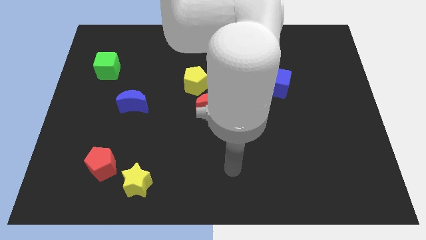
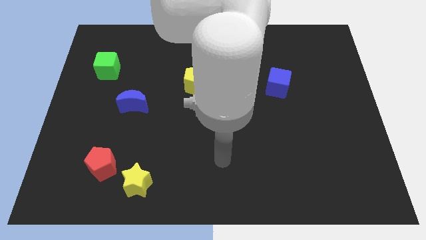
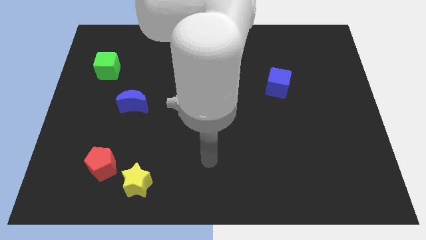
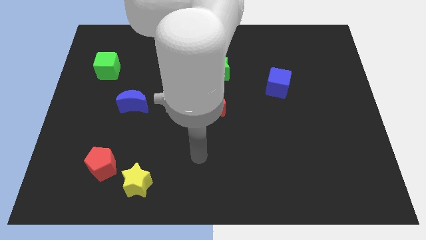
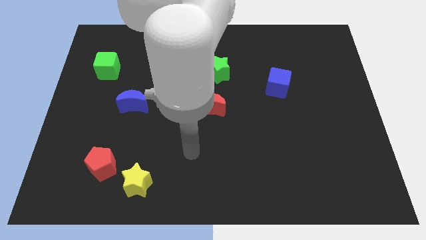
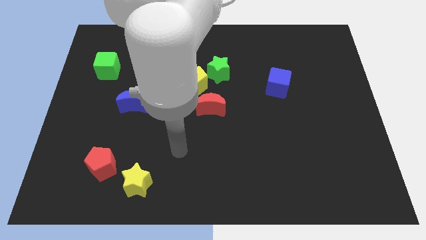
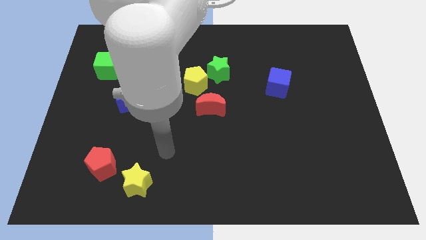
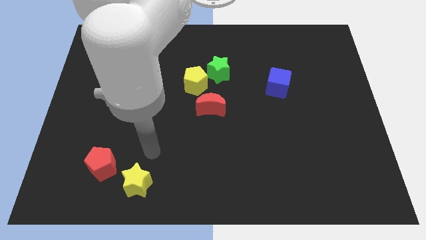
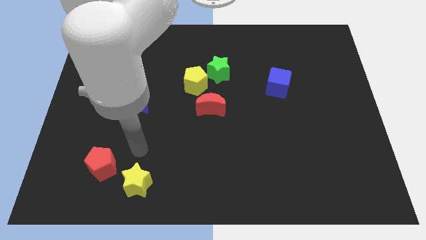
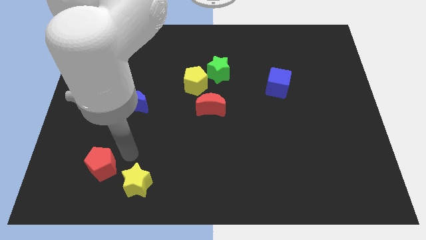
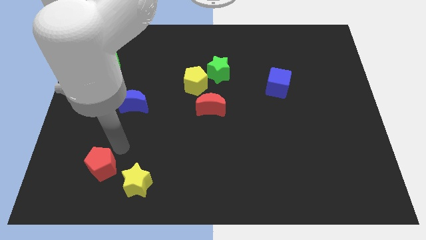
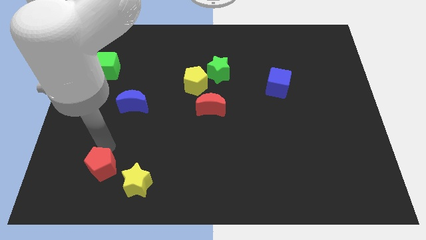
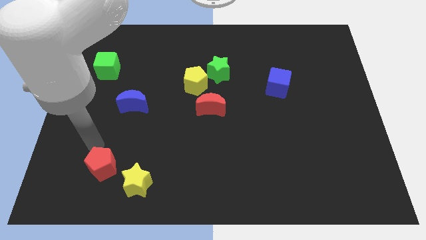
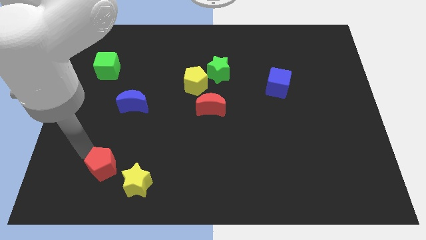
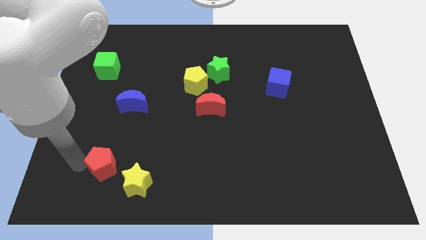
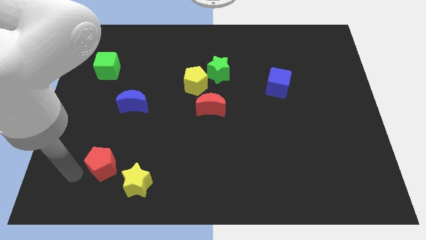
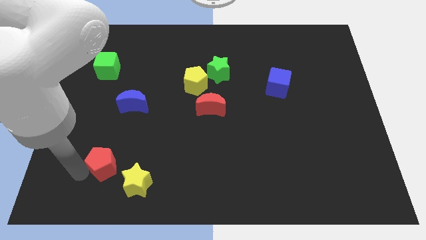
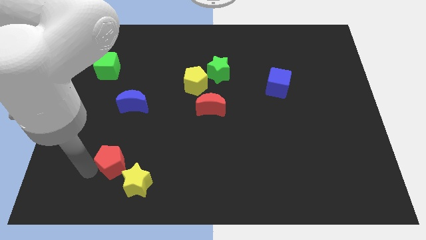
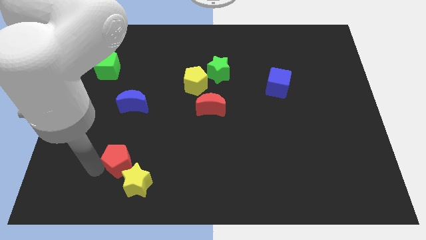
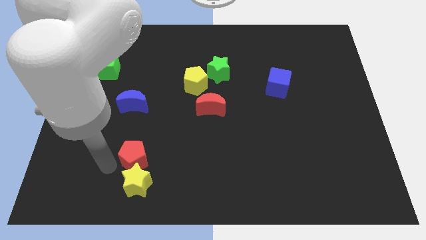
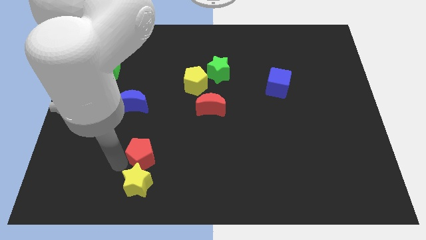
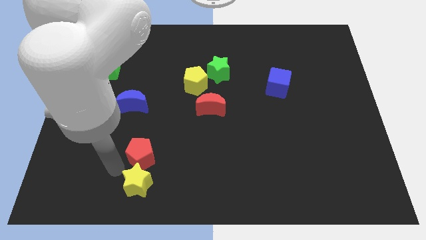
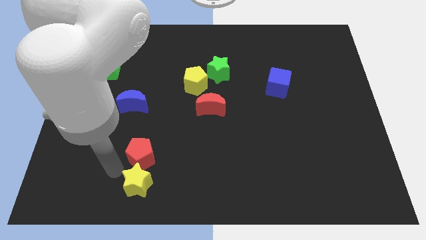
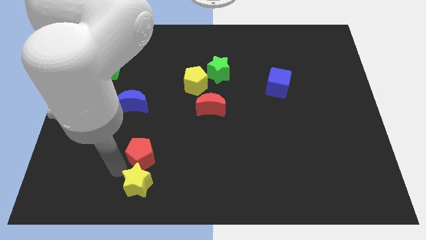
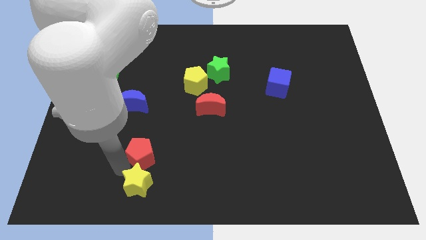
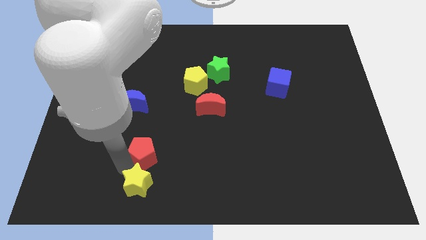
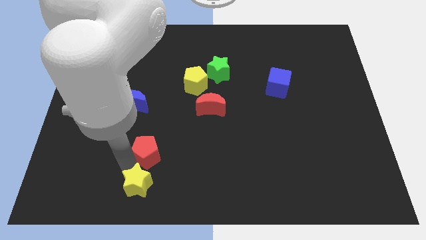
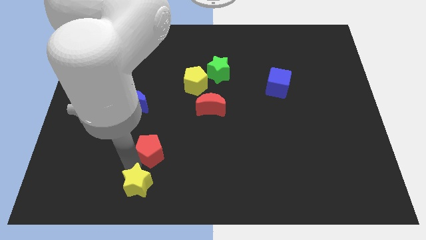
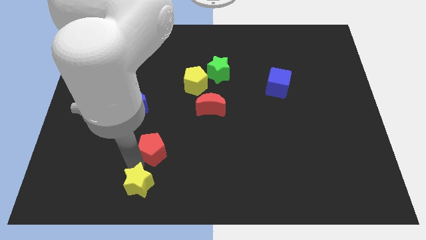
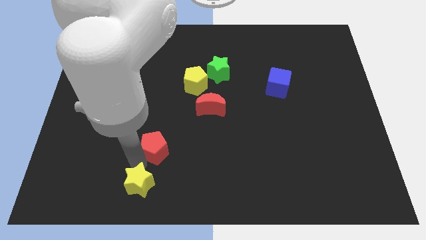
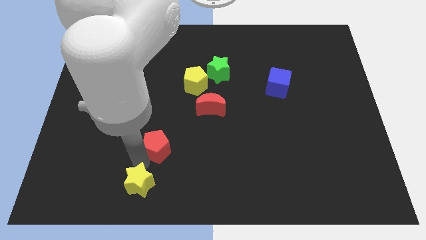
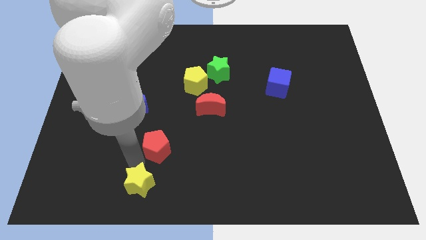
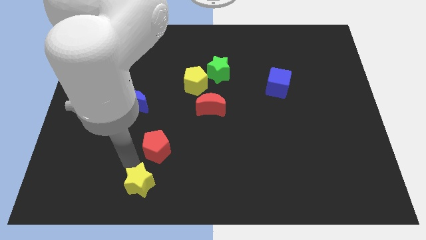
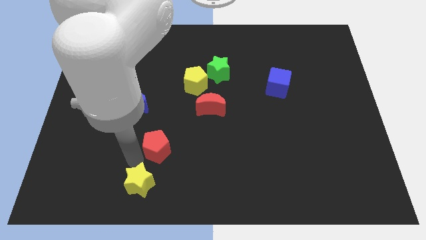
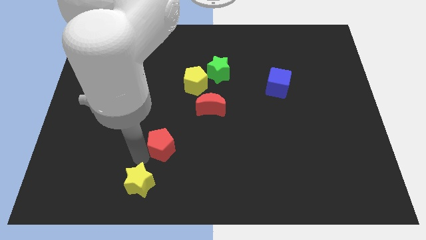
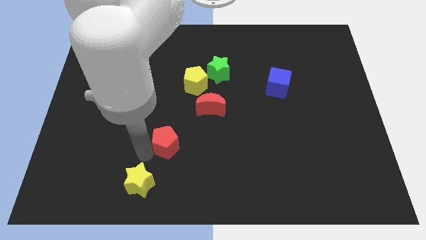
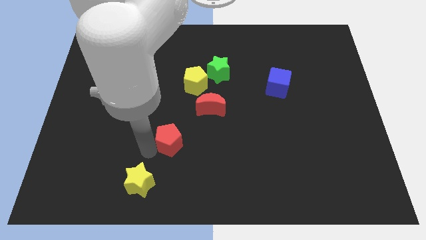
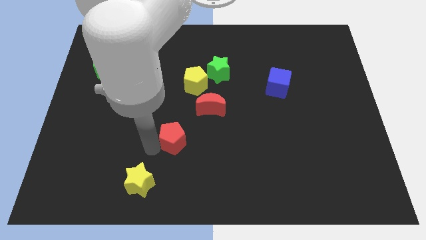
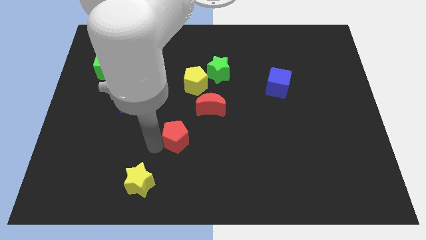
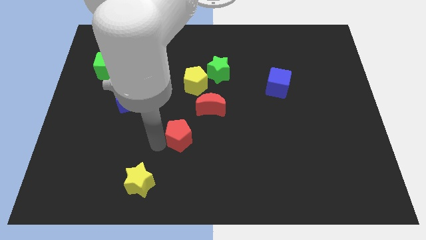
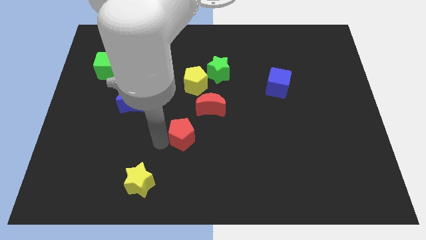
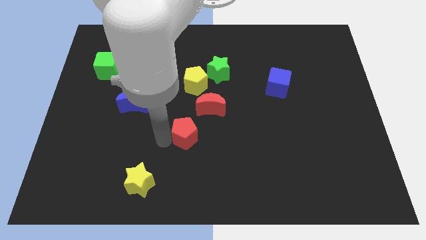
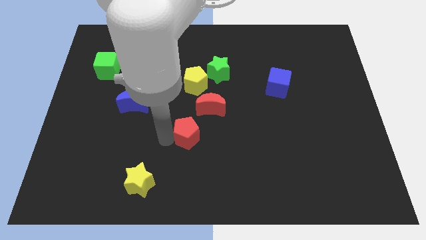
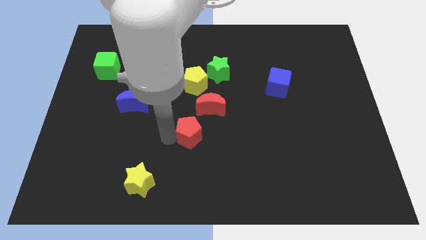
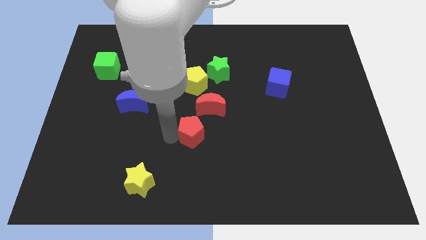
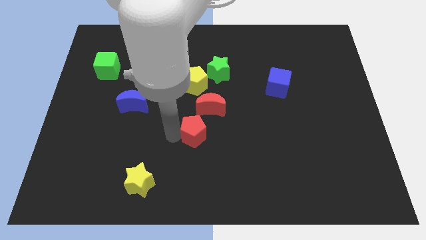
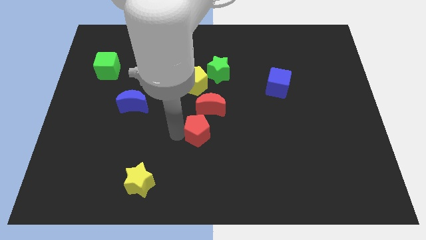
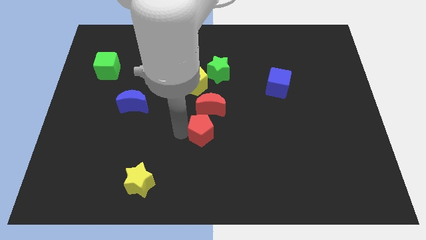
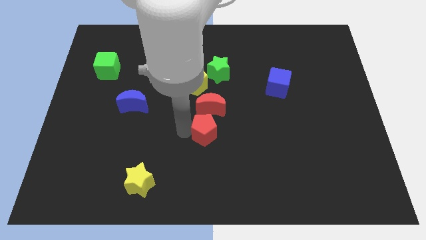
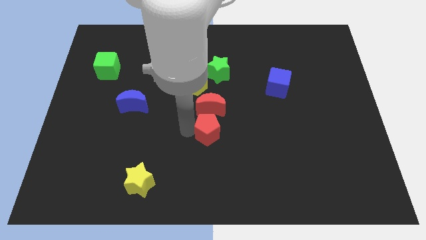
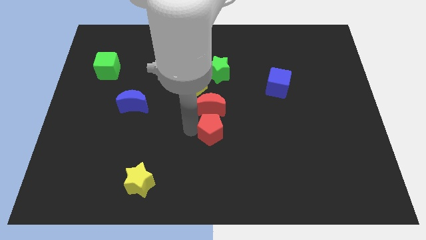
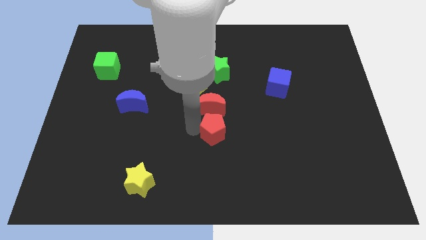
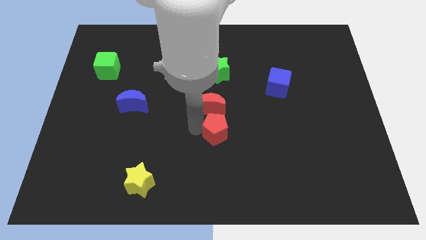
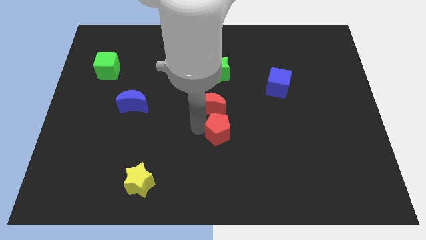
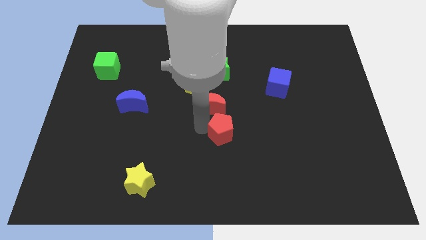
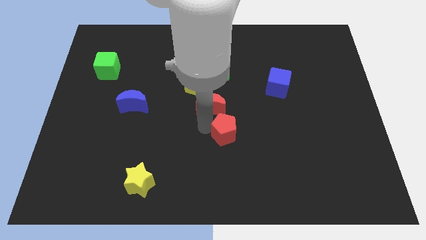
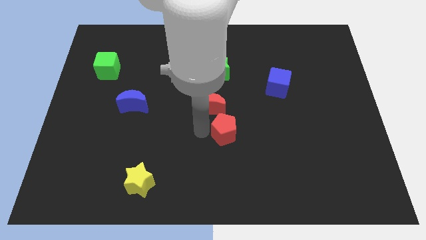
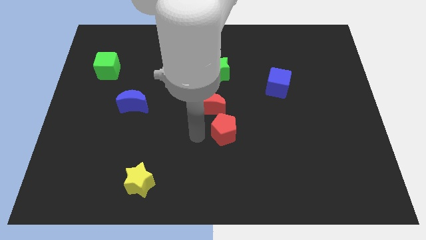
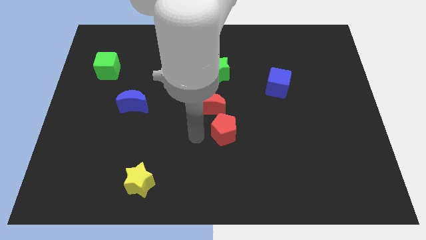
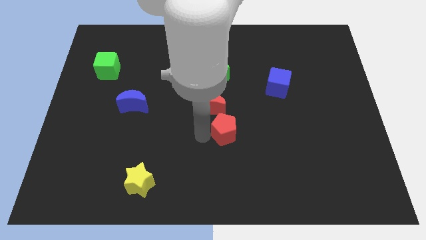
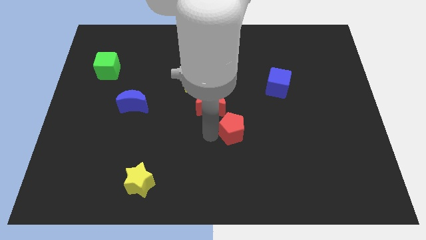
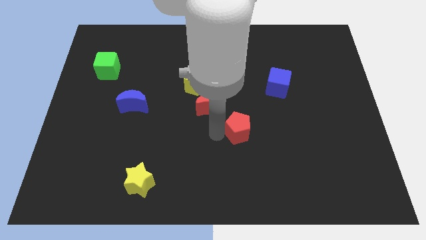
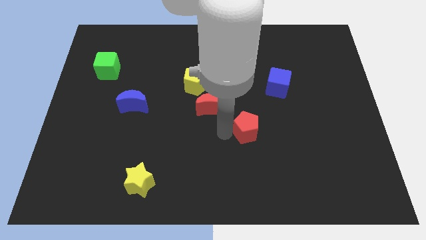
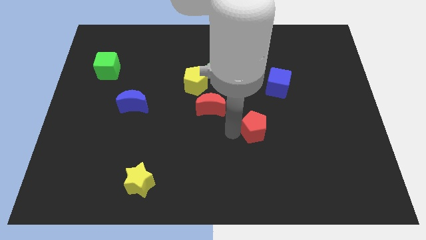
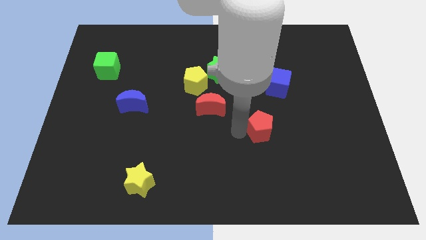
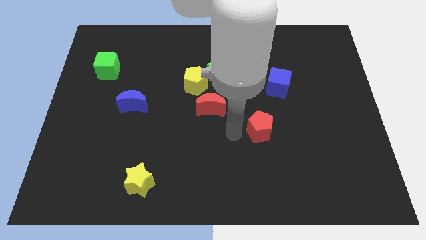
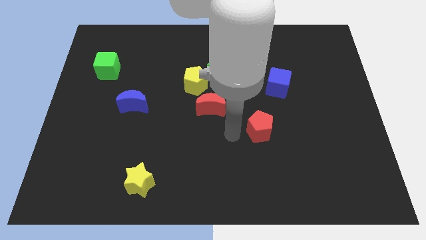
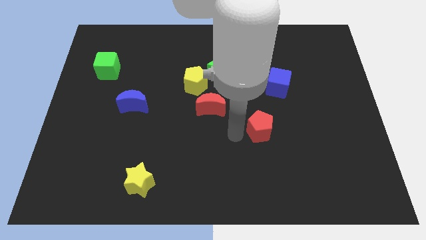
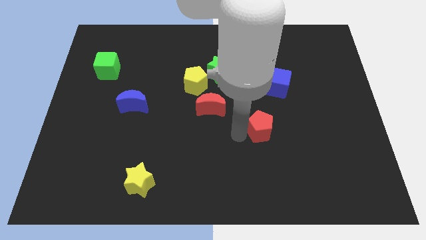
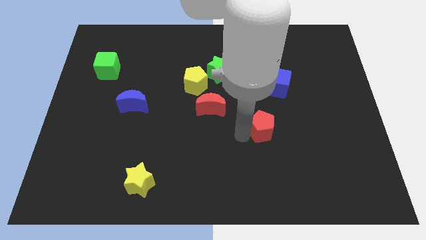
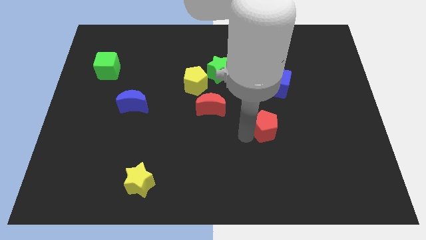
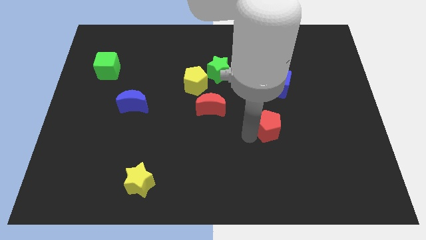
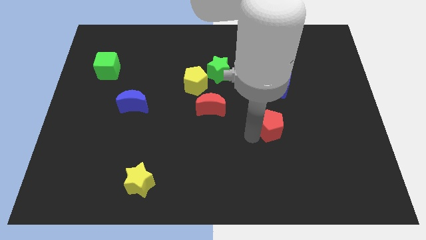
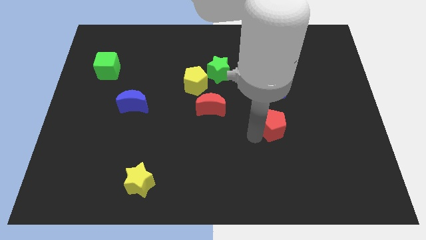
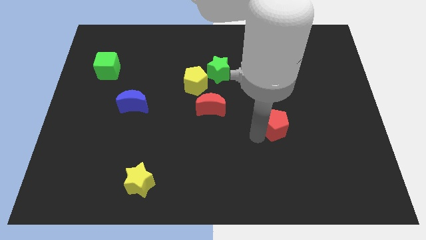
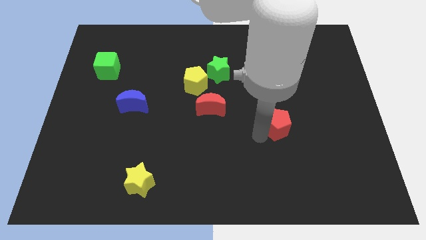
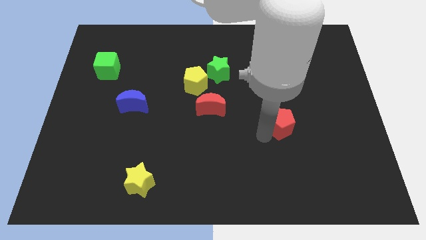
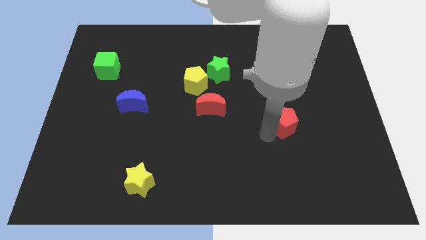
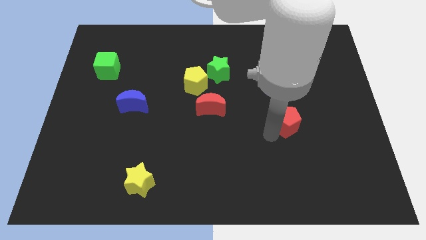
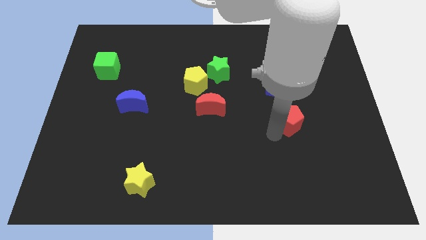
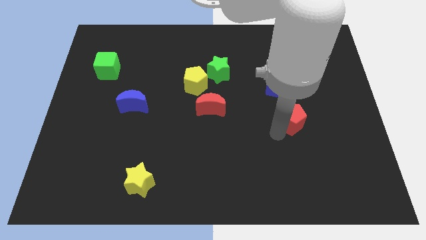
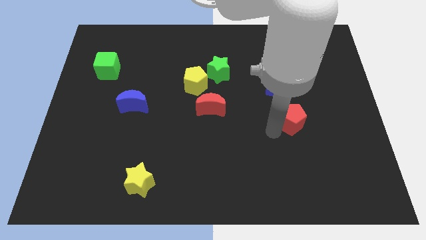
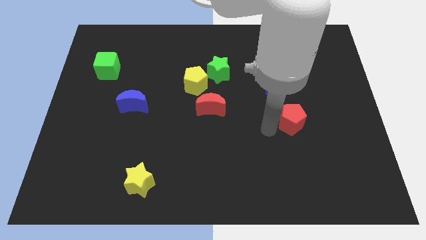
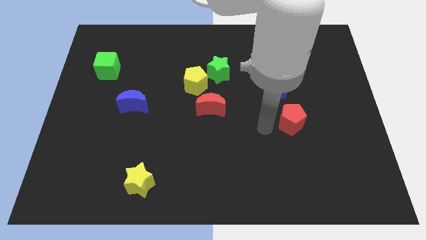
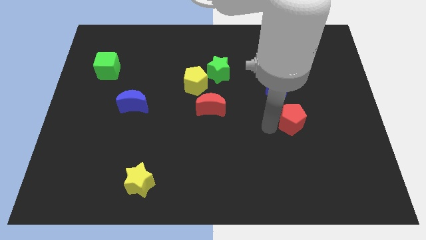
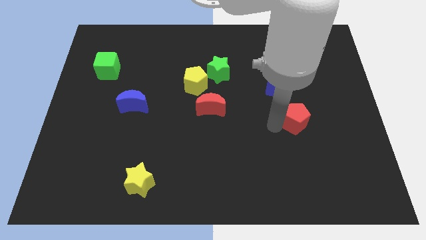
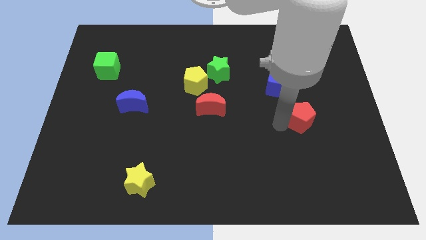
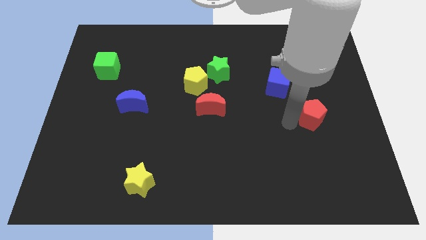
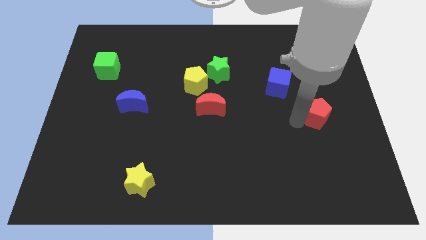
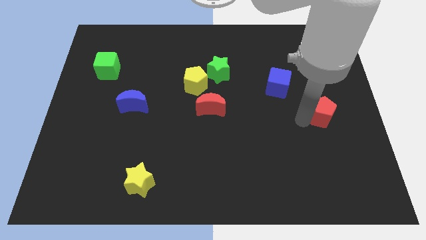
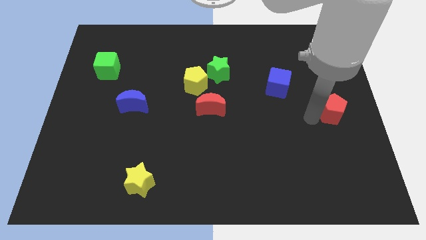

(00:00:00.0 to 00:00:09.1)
move the red pentagon to the right side of the board
